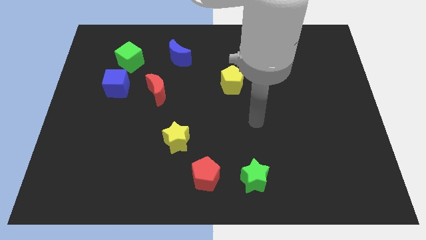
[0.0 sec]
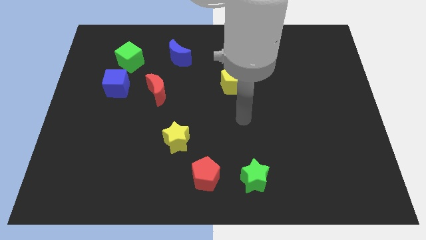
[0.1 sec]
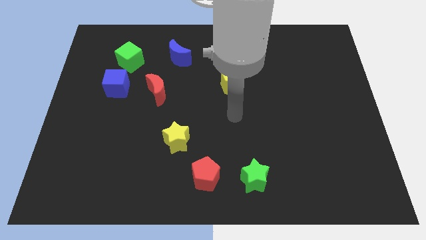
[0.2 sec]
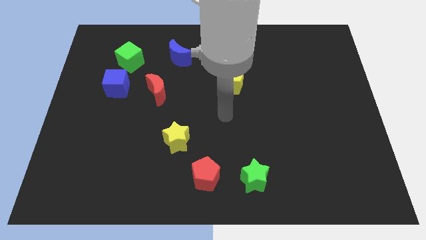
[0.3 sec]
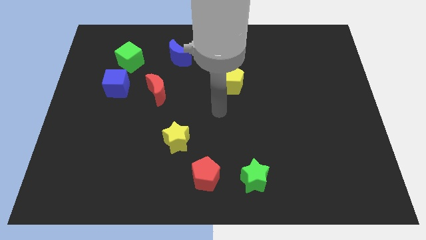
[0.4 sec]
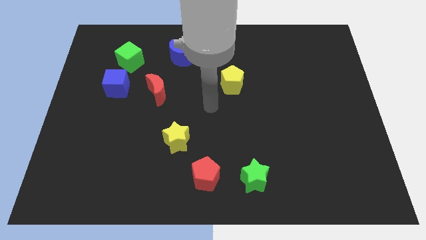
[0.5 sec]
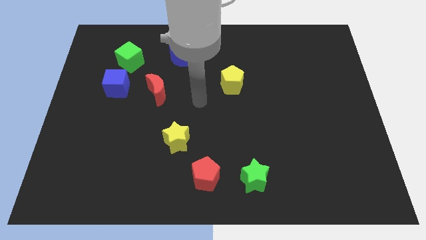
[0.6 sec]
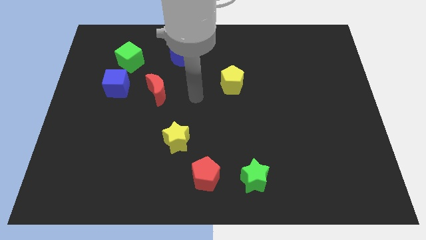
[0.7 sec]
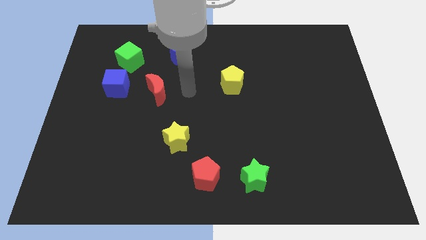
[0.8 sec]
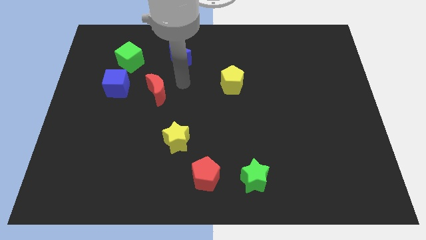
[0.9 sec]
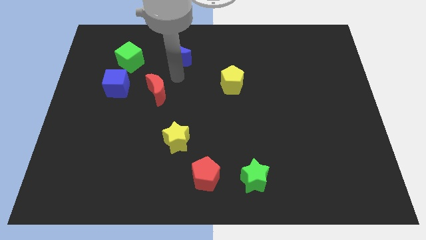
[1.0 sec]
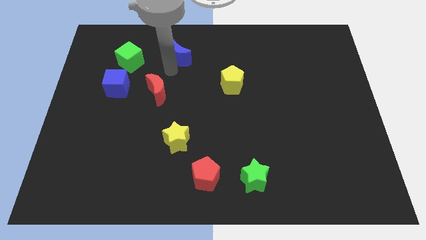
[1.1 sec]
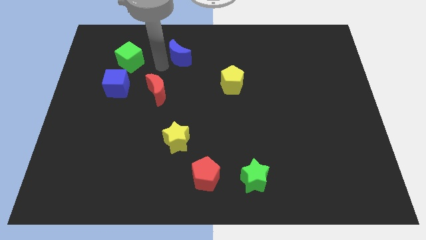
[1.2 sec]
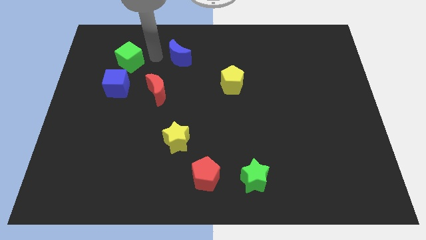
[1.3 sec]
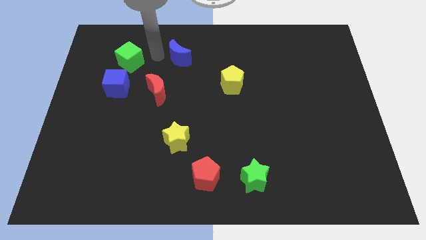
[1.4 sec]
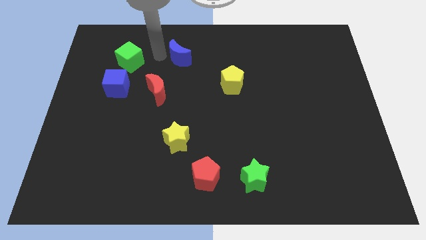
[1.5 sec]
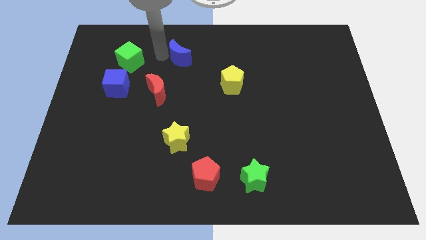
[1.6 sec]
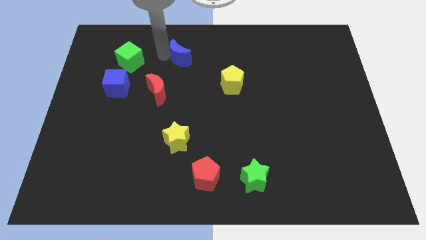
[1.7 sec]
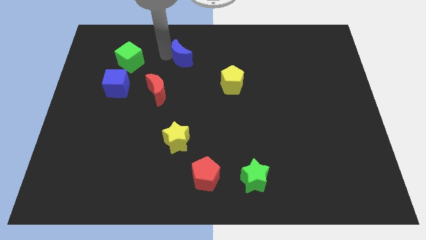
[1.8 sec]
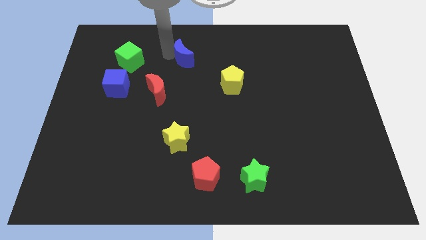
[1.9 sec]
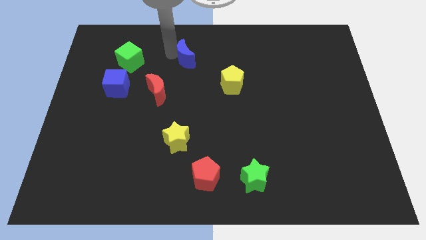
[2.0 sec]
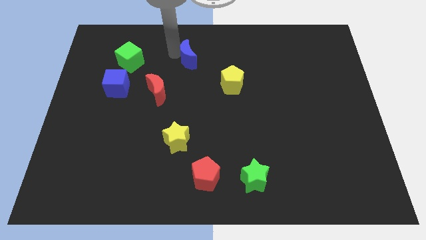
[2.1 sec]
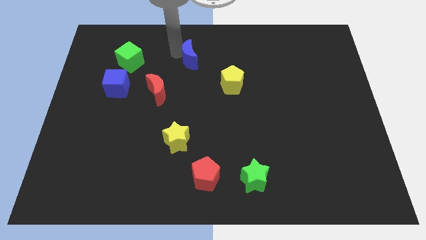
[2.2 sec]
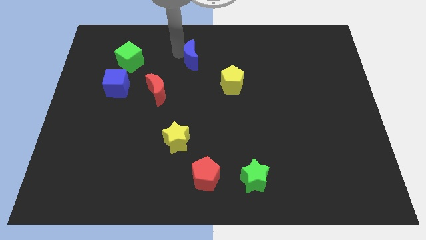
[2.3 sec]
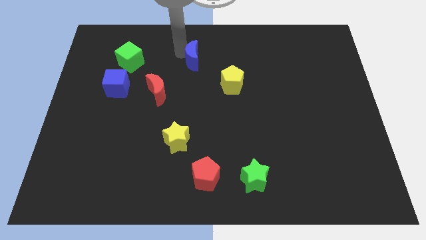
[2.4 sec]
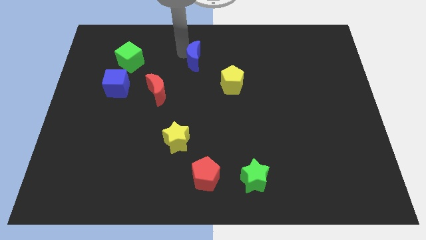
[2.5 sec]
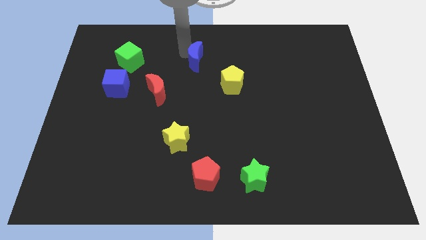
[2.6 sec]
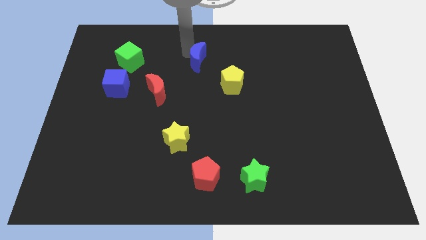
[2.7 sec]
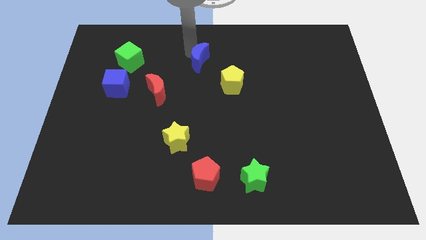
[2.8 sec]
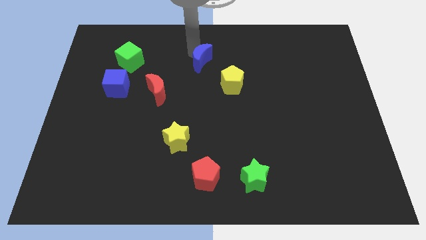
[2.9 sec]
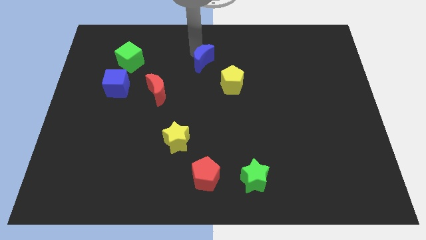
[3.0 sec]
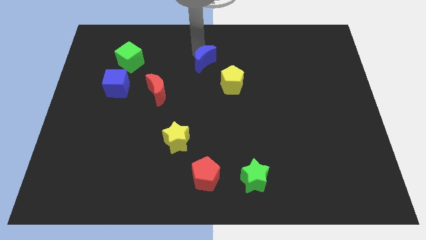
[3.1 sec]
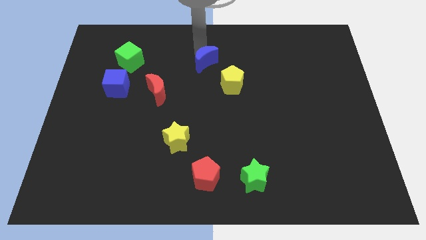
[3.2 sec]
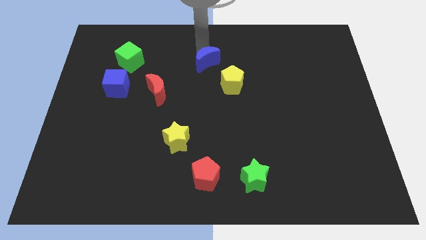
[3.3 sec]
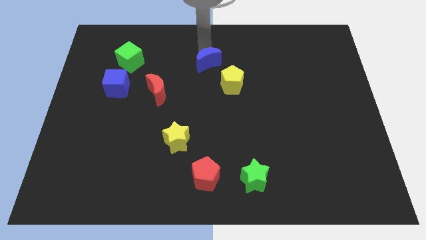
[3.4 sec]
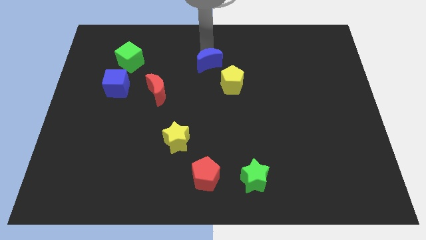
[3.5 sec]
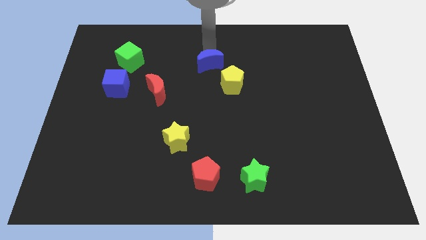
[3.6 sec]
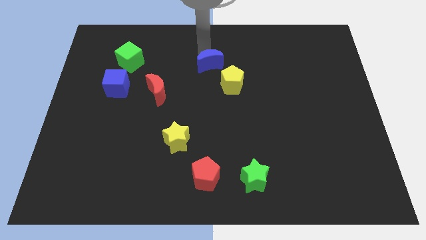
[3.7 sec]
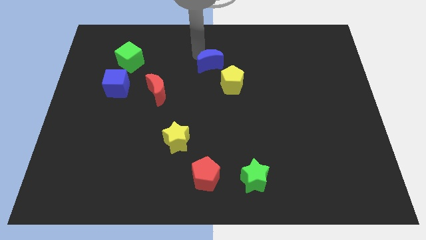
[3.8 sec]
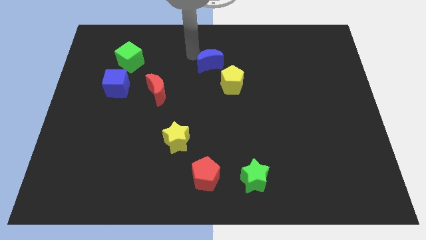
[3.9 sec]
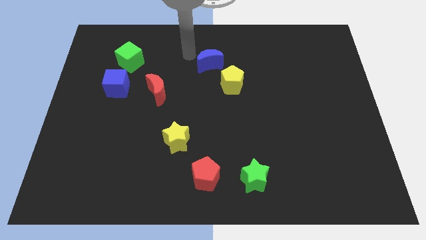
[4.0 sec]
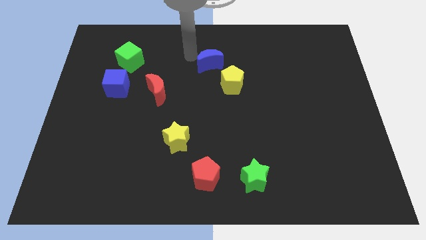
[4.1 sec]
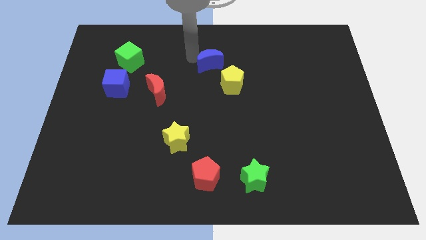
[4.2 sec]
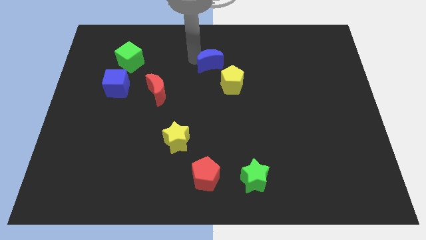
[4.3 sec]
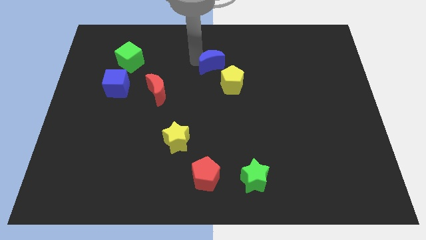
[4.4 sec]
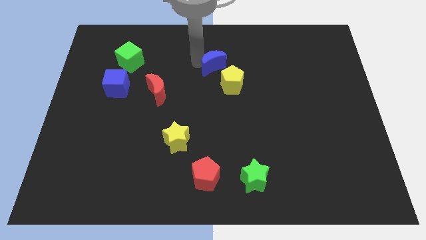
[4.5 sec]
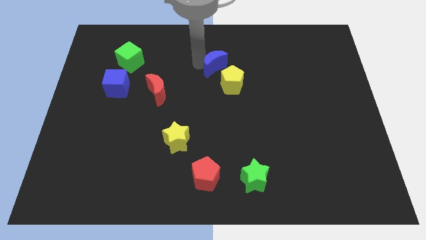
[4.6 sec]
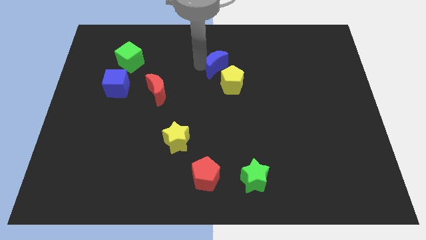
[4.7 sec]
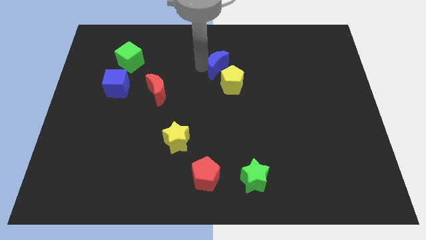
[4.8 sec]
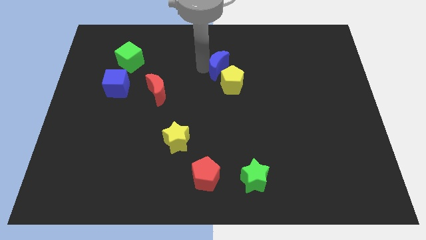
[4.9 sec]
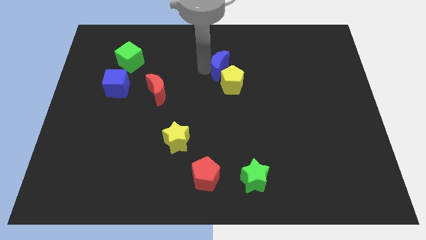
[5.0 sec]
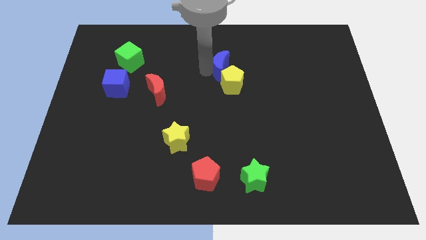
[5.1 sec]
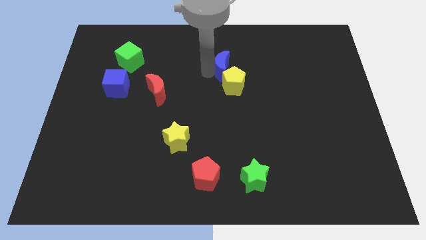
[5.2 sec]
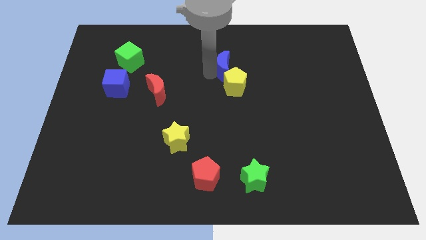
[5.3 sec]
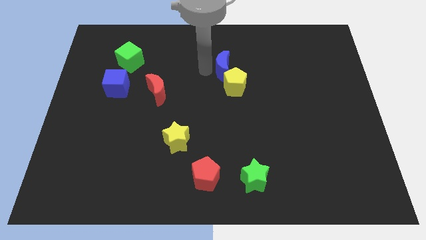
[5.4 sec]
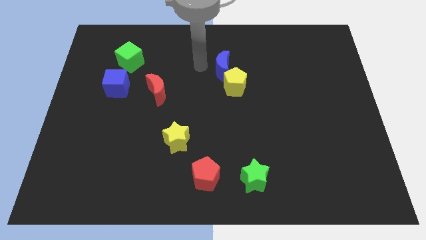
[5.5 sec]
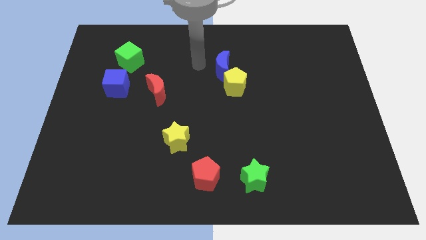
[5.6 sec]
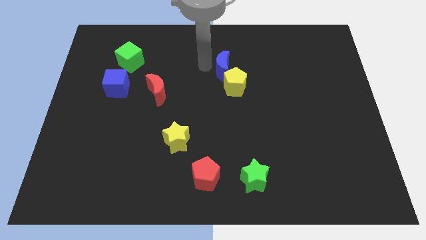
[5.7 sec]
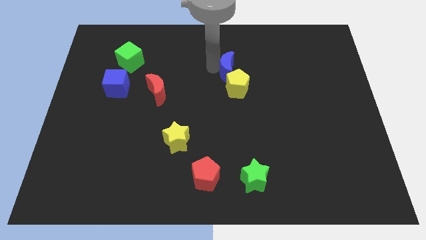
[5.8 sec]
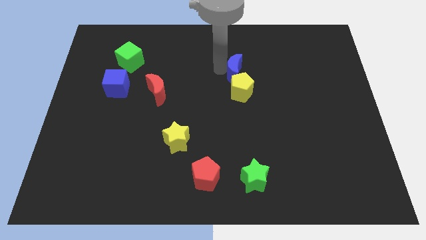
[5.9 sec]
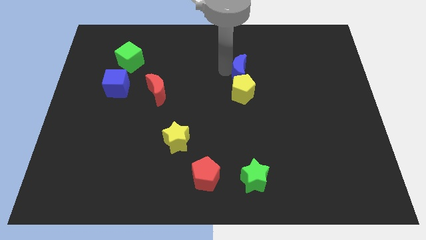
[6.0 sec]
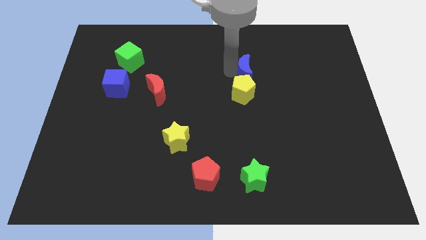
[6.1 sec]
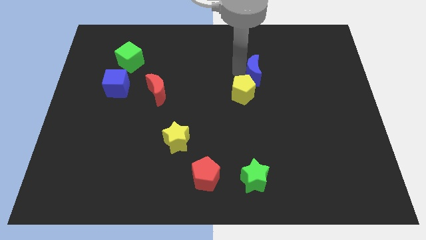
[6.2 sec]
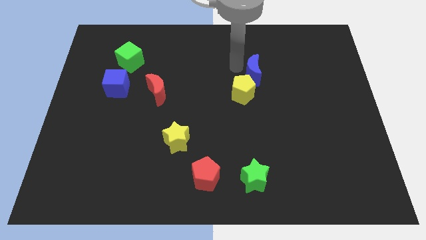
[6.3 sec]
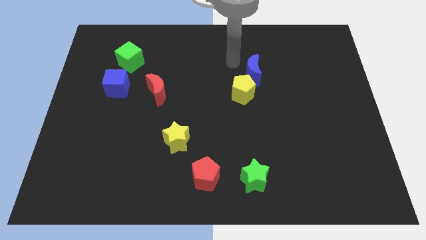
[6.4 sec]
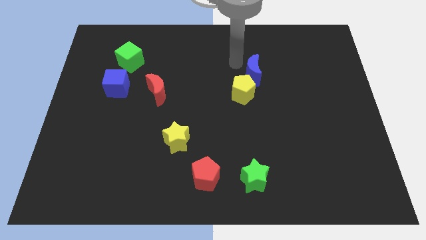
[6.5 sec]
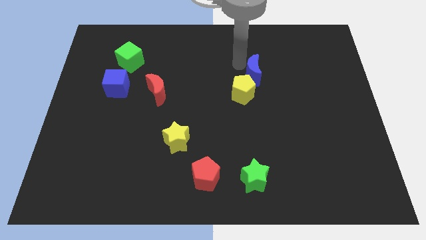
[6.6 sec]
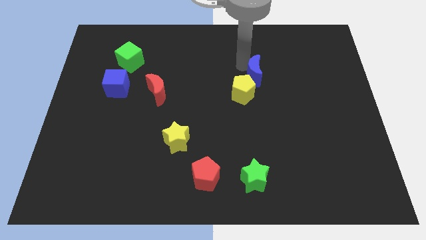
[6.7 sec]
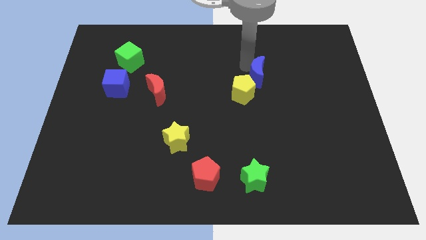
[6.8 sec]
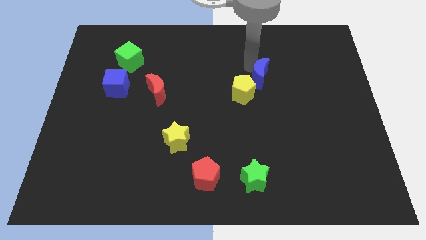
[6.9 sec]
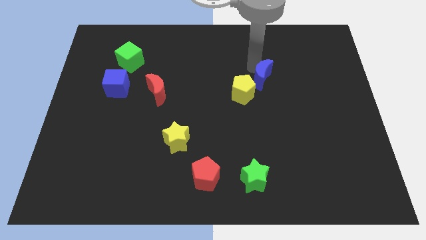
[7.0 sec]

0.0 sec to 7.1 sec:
push the blue moon just right of the yellow pentagon

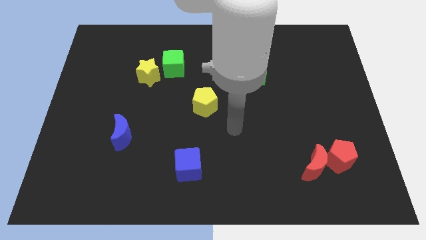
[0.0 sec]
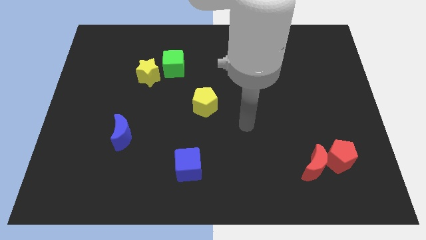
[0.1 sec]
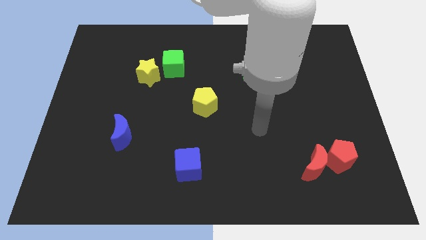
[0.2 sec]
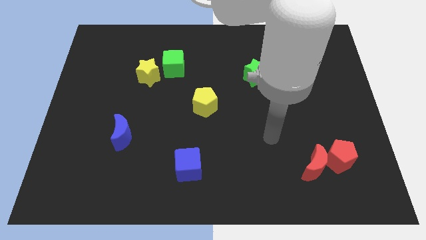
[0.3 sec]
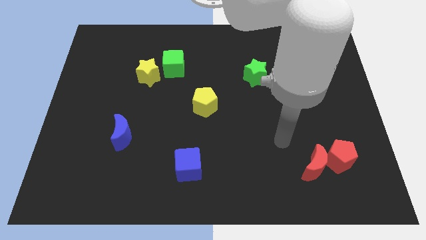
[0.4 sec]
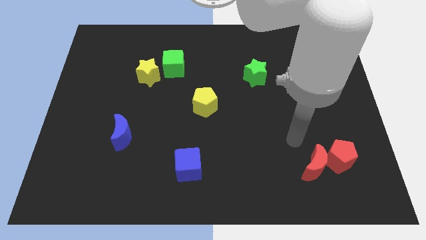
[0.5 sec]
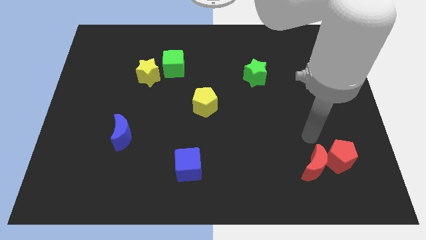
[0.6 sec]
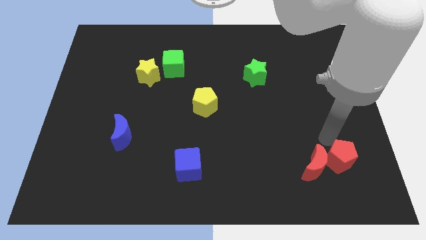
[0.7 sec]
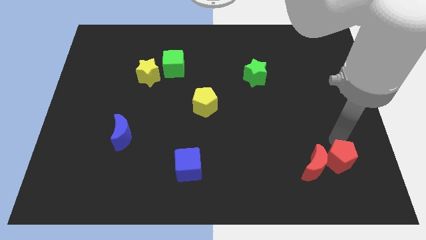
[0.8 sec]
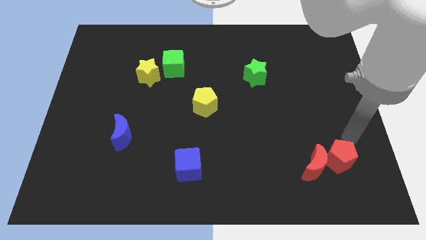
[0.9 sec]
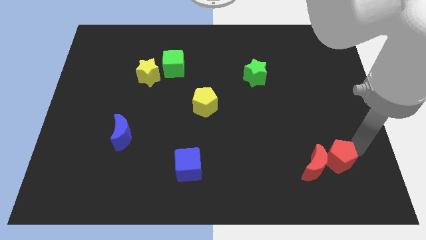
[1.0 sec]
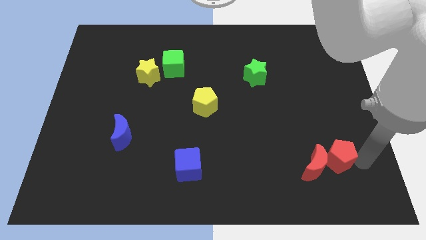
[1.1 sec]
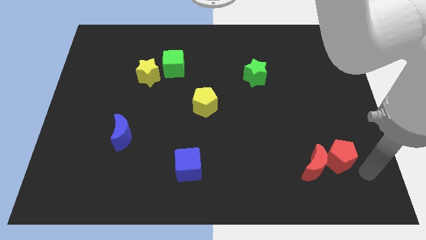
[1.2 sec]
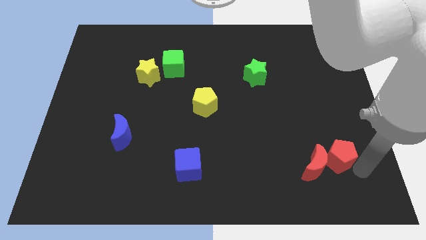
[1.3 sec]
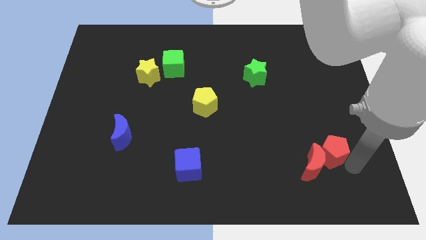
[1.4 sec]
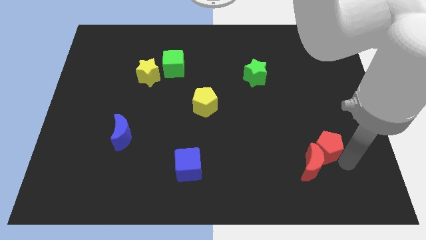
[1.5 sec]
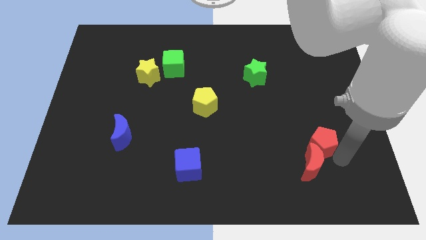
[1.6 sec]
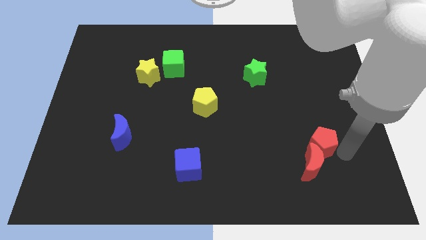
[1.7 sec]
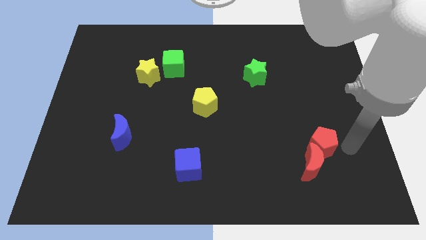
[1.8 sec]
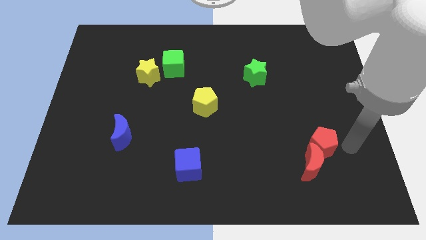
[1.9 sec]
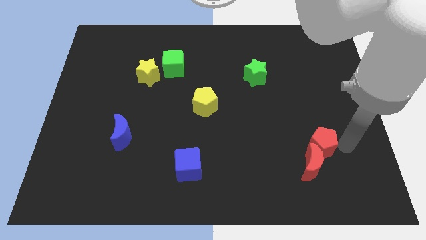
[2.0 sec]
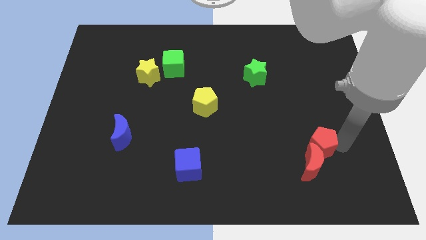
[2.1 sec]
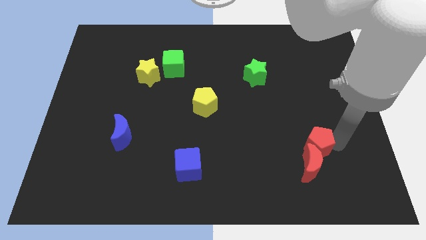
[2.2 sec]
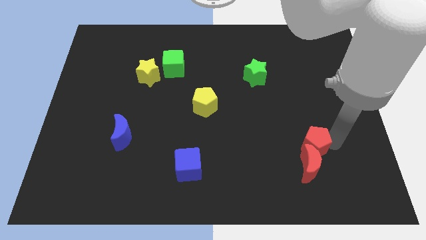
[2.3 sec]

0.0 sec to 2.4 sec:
push the red pentagon to the top left side of the red moon
